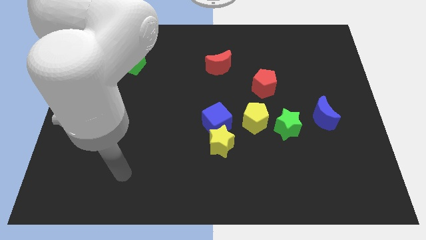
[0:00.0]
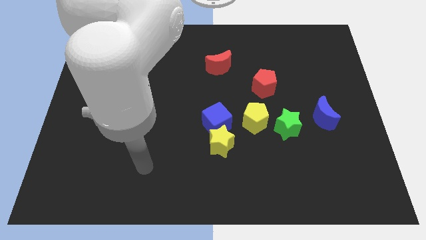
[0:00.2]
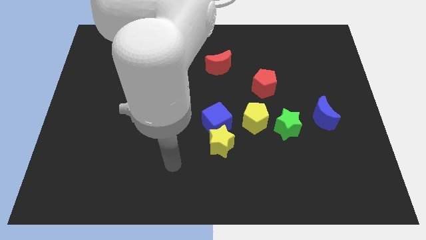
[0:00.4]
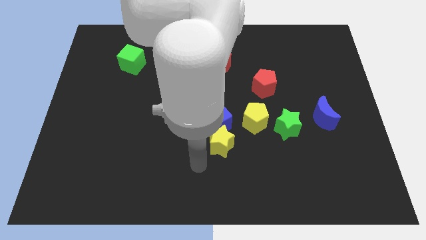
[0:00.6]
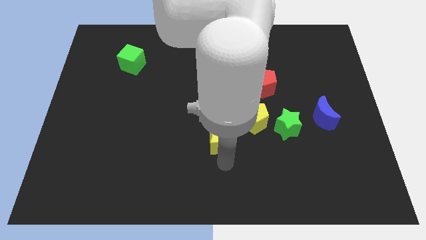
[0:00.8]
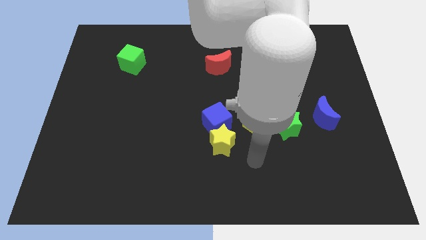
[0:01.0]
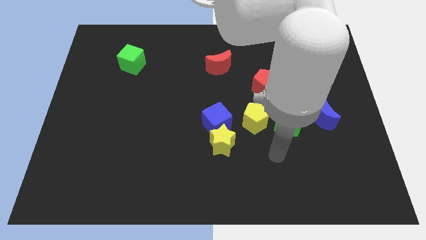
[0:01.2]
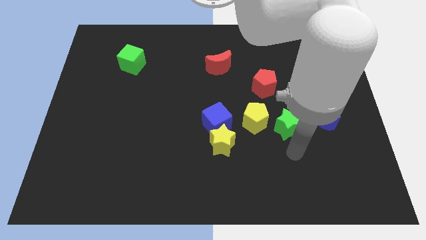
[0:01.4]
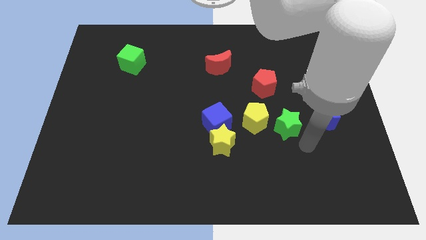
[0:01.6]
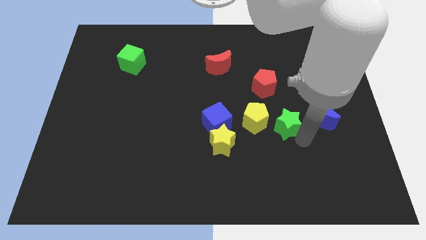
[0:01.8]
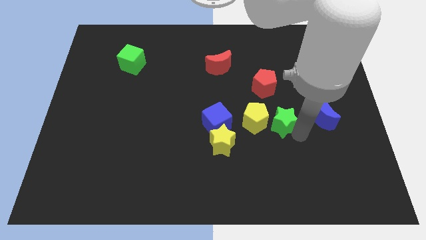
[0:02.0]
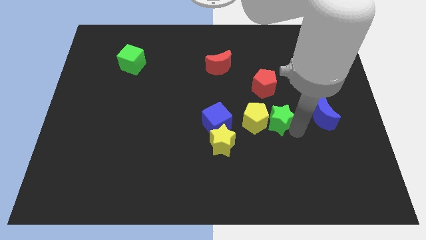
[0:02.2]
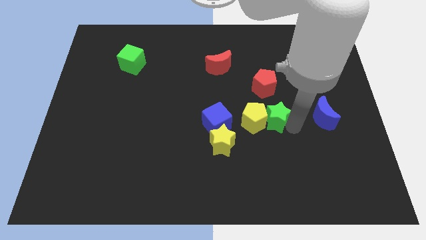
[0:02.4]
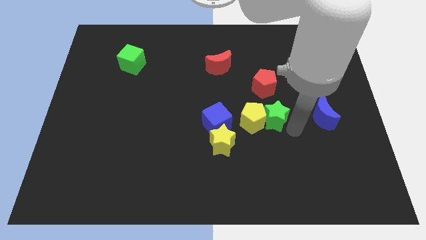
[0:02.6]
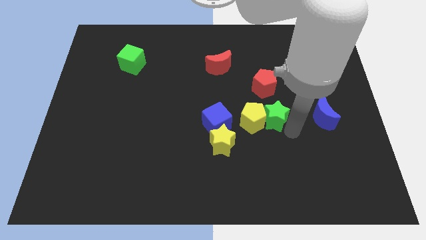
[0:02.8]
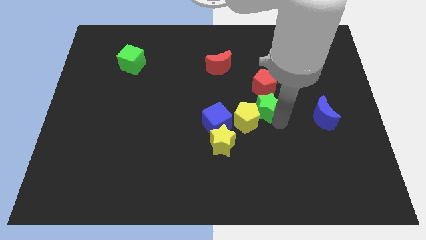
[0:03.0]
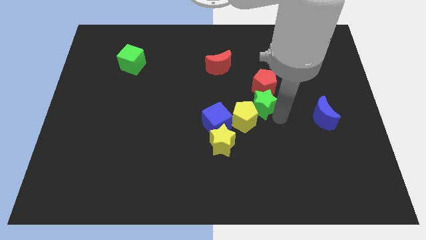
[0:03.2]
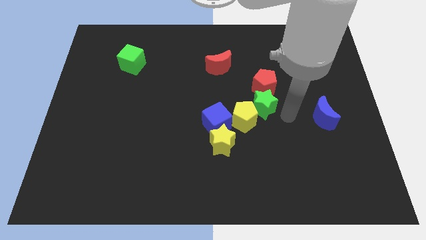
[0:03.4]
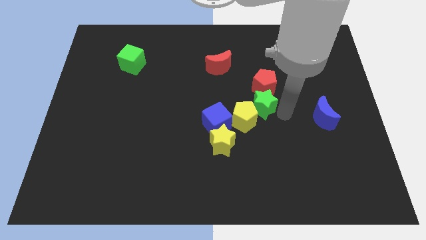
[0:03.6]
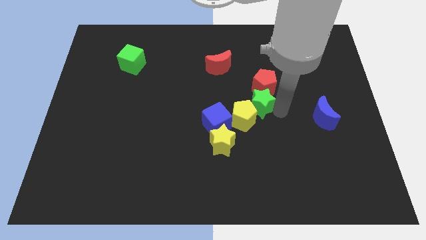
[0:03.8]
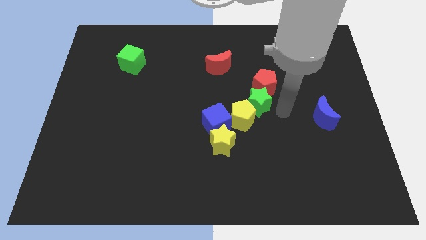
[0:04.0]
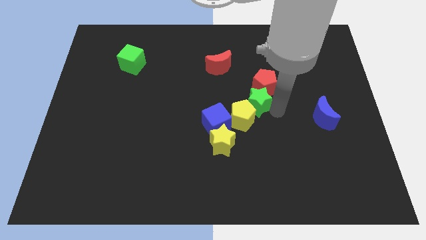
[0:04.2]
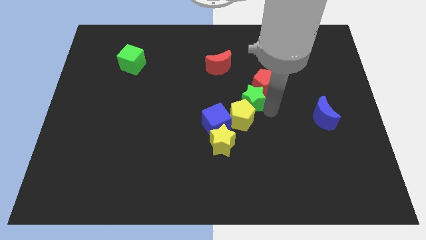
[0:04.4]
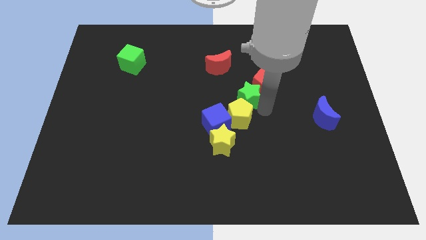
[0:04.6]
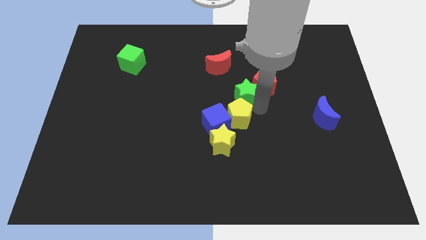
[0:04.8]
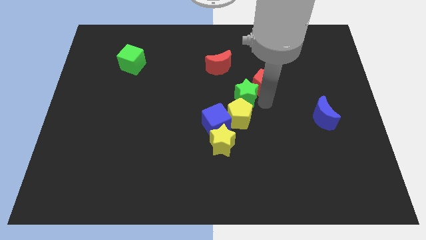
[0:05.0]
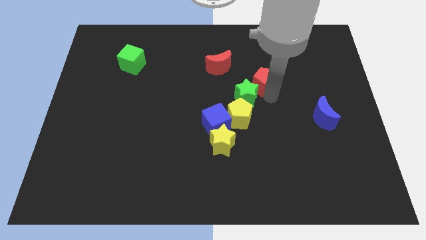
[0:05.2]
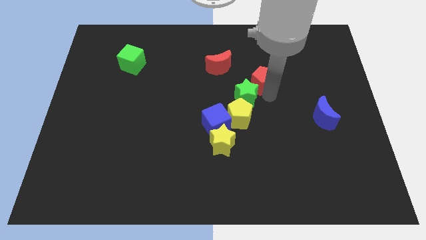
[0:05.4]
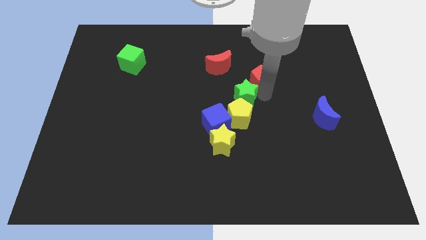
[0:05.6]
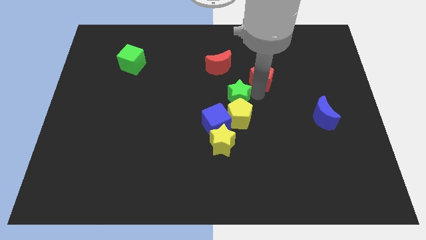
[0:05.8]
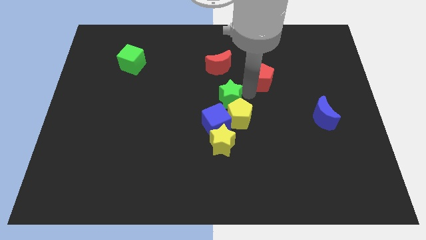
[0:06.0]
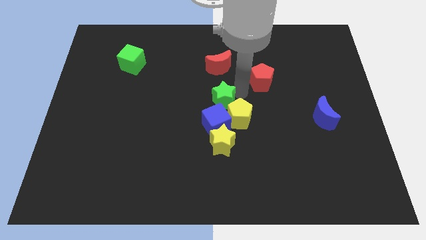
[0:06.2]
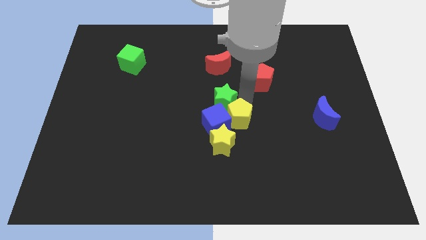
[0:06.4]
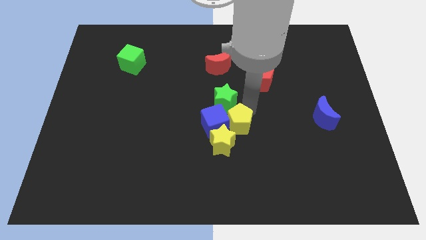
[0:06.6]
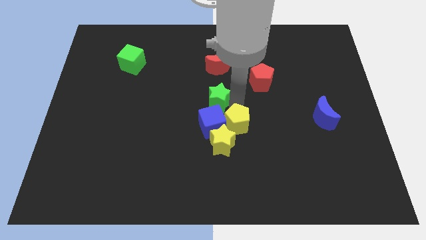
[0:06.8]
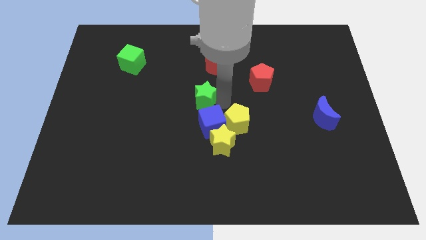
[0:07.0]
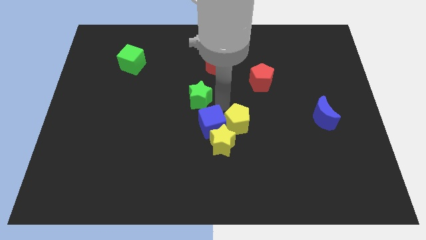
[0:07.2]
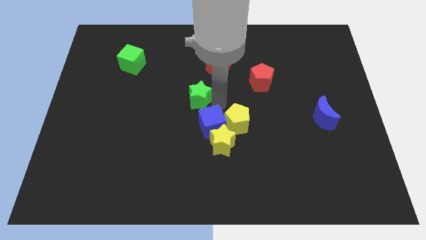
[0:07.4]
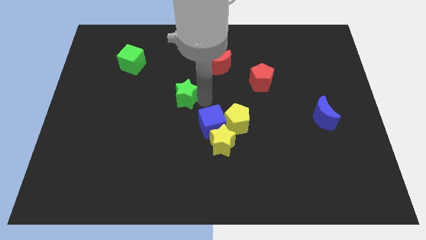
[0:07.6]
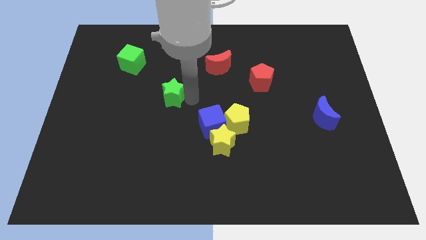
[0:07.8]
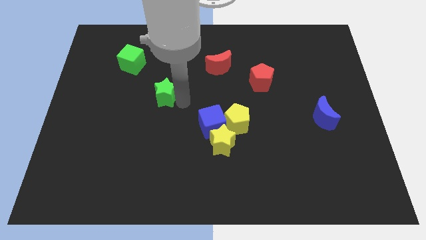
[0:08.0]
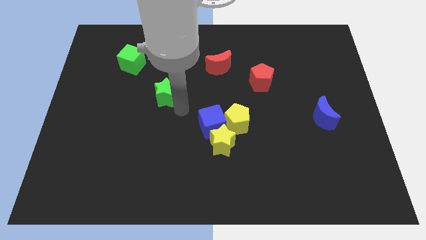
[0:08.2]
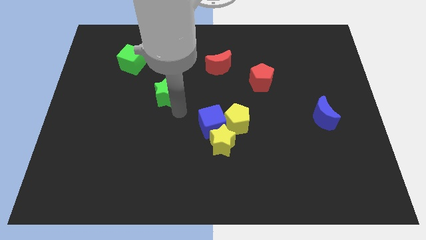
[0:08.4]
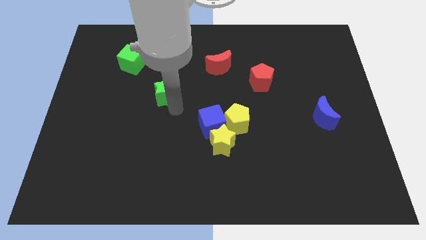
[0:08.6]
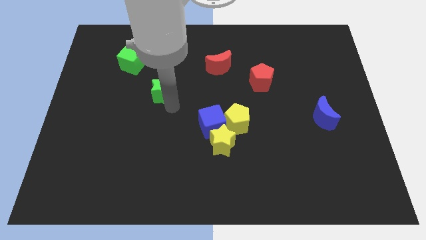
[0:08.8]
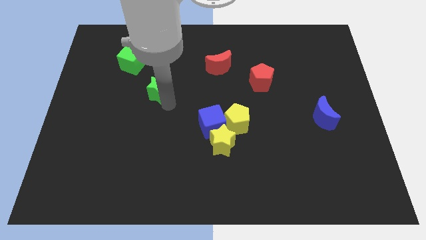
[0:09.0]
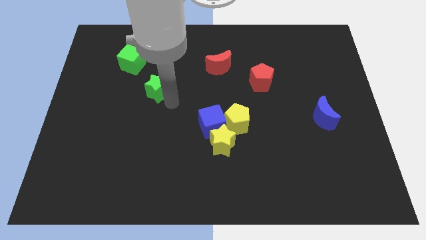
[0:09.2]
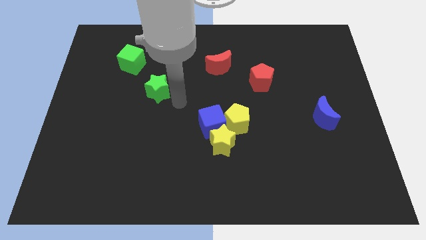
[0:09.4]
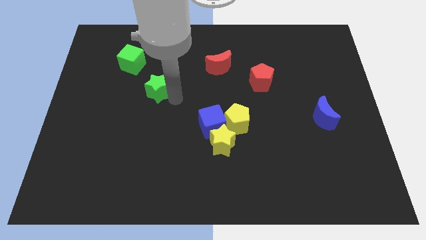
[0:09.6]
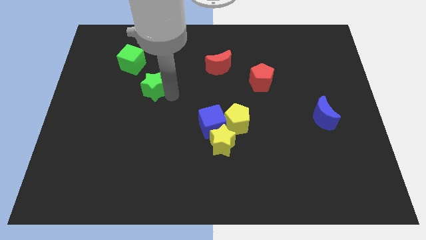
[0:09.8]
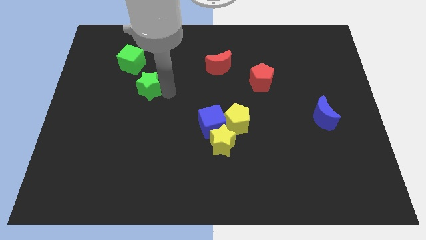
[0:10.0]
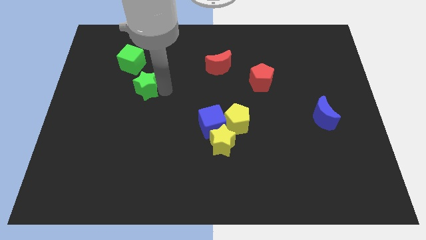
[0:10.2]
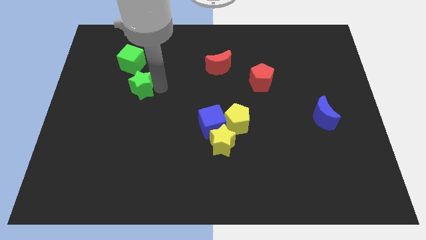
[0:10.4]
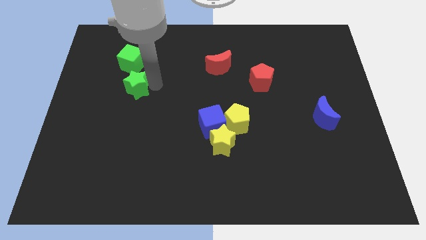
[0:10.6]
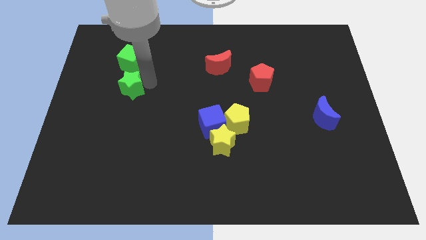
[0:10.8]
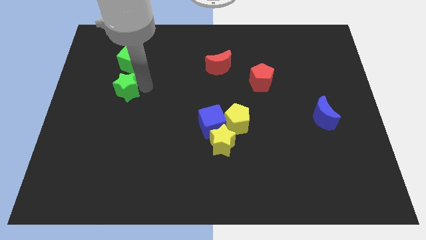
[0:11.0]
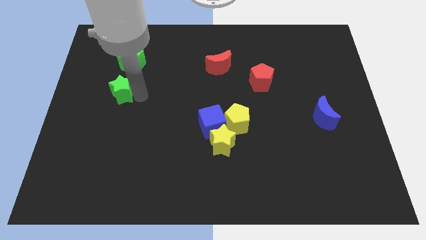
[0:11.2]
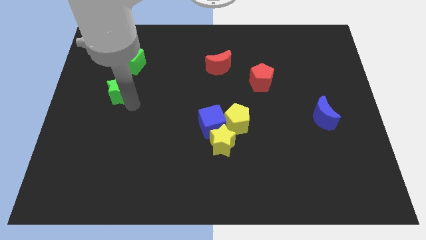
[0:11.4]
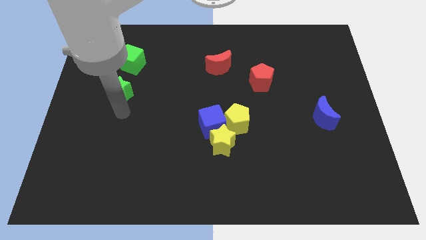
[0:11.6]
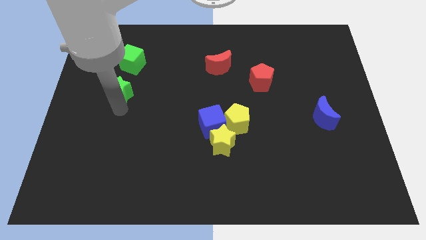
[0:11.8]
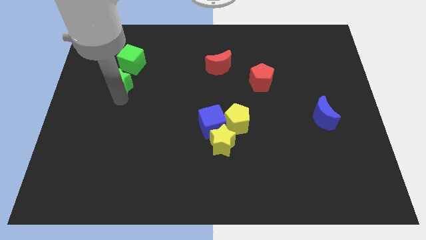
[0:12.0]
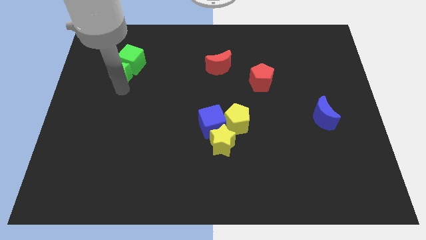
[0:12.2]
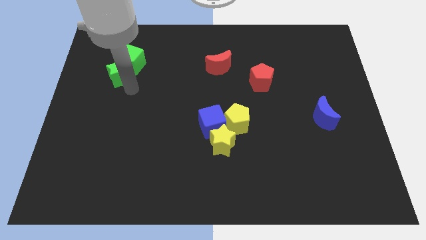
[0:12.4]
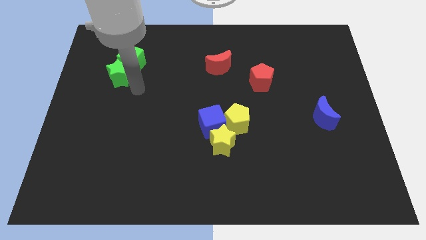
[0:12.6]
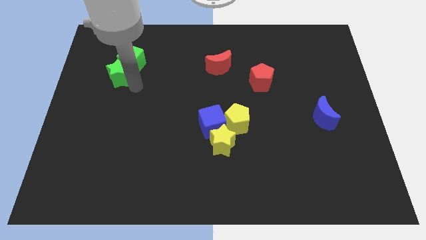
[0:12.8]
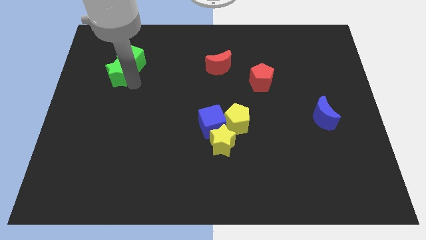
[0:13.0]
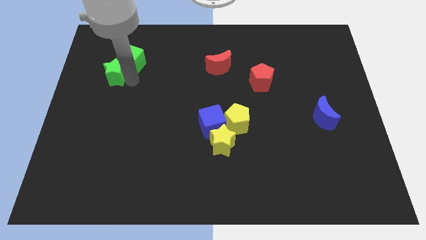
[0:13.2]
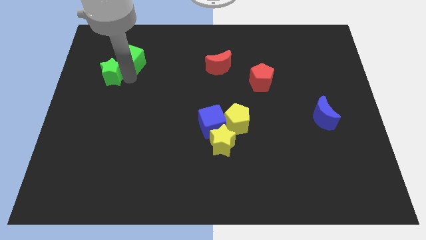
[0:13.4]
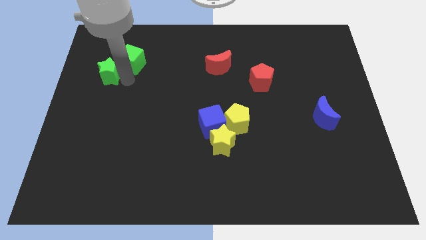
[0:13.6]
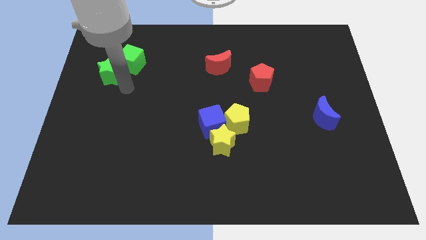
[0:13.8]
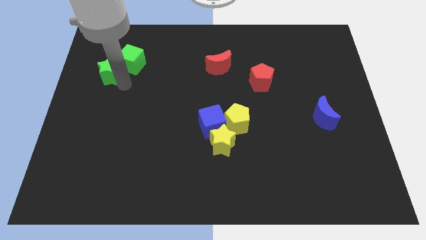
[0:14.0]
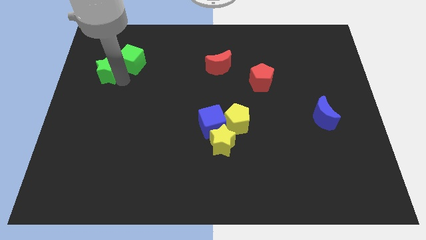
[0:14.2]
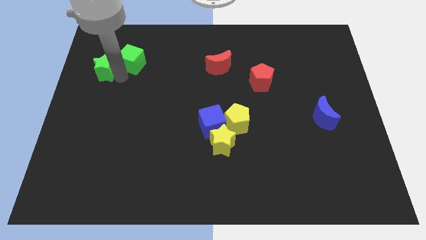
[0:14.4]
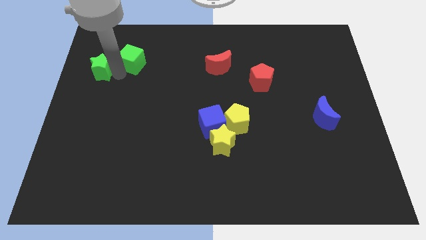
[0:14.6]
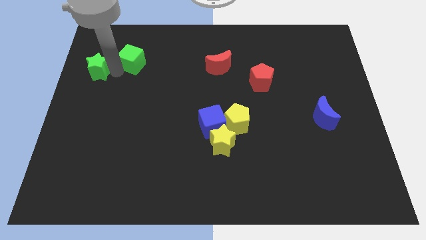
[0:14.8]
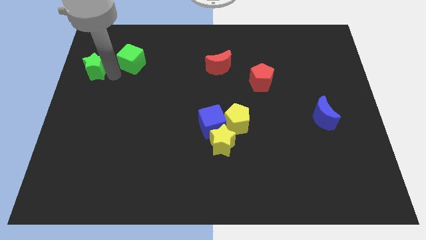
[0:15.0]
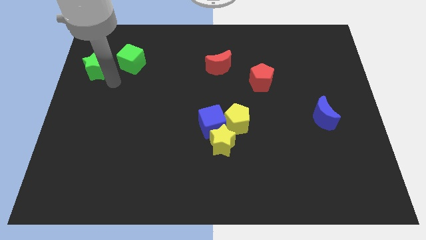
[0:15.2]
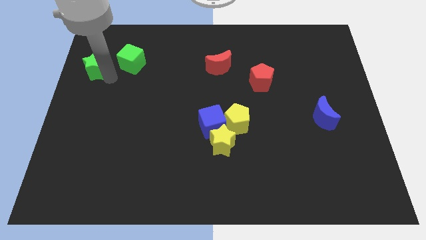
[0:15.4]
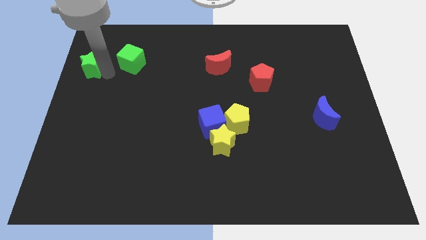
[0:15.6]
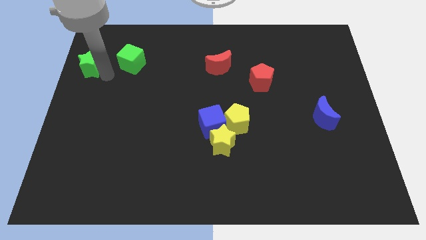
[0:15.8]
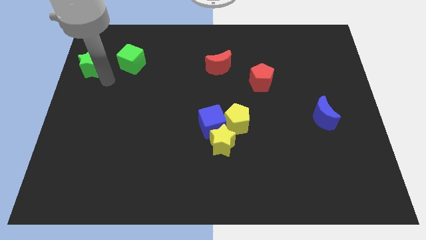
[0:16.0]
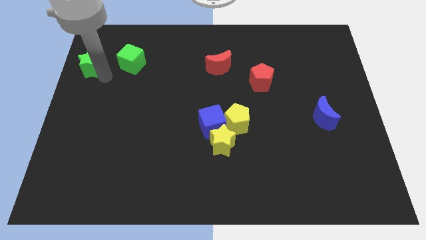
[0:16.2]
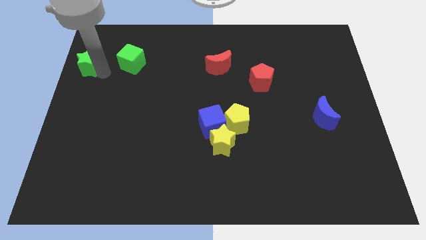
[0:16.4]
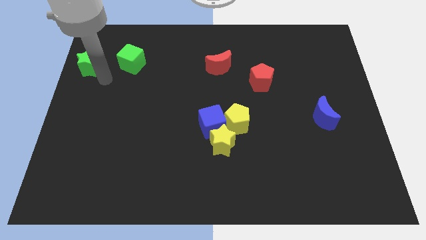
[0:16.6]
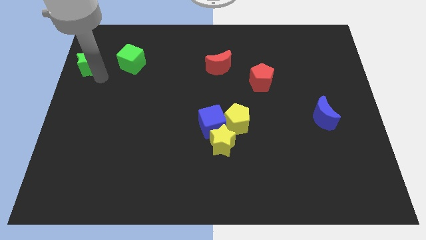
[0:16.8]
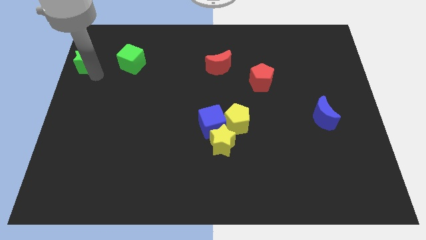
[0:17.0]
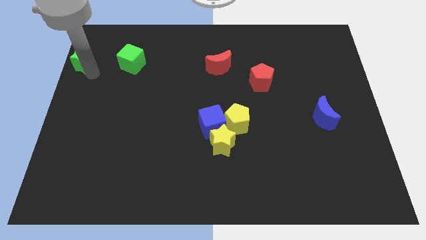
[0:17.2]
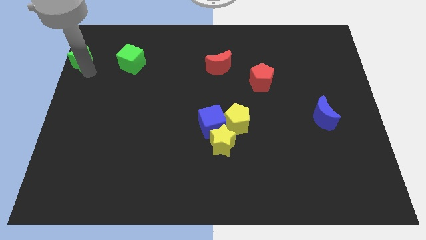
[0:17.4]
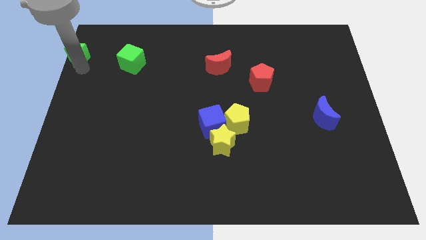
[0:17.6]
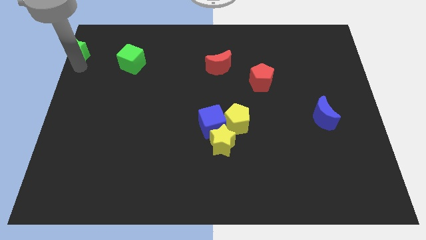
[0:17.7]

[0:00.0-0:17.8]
slide the green star to the top left corner
